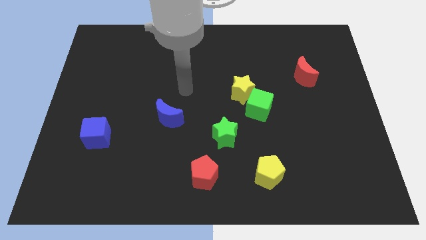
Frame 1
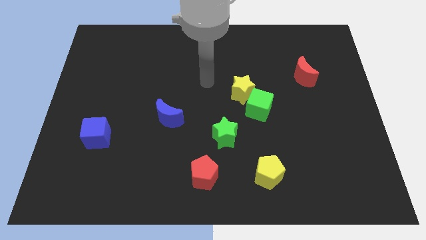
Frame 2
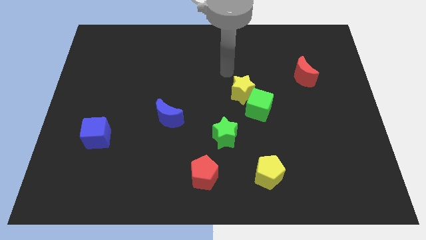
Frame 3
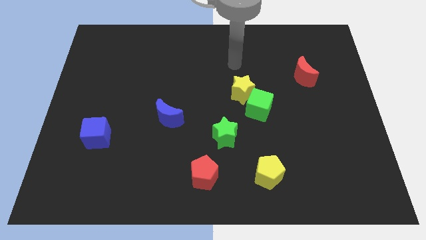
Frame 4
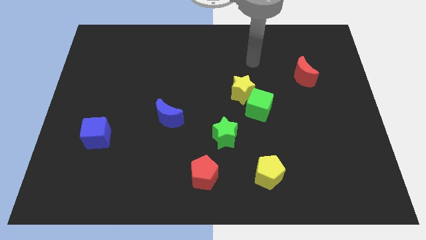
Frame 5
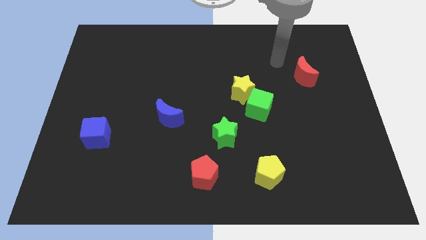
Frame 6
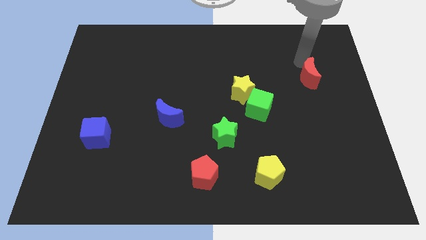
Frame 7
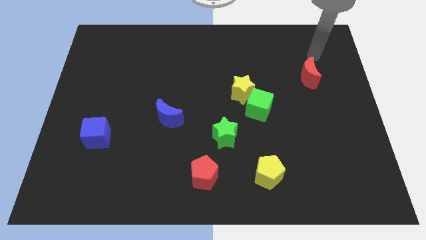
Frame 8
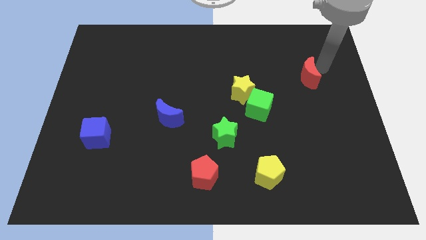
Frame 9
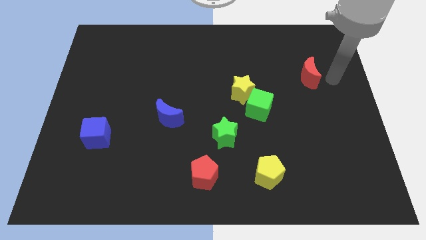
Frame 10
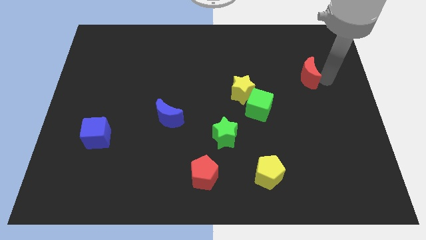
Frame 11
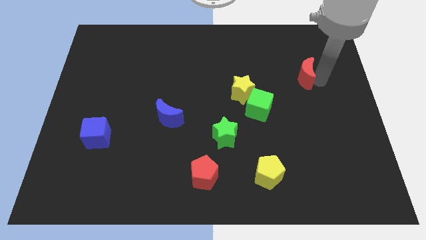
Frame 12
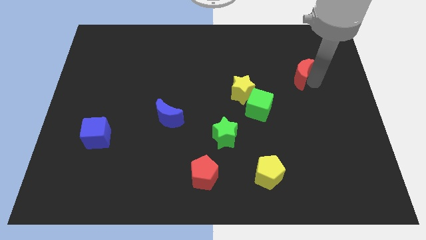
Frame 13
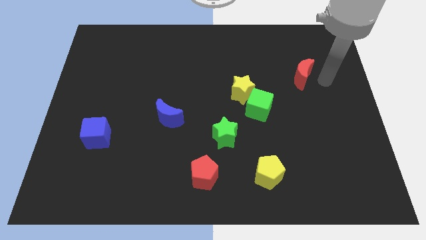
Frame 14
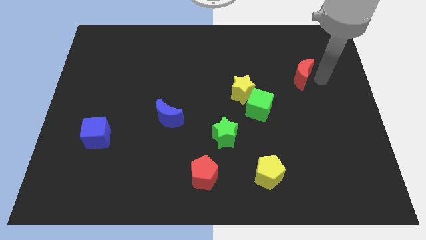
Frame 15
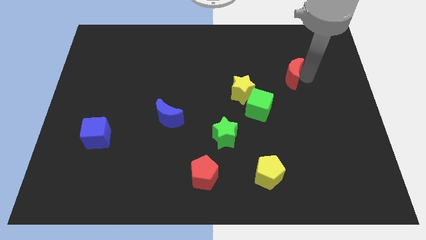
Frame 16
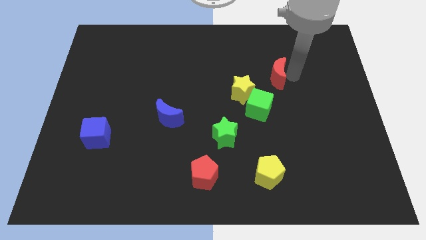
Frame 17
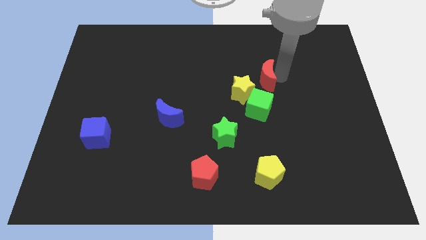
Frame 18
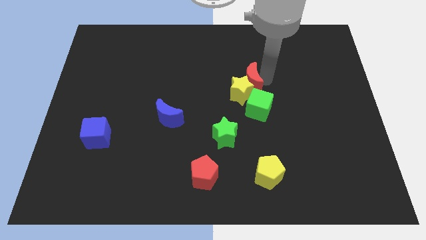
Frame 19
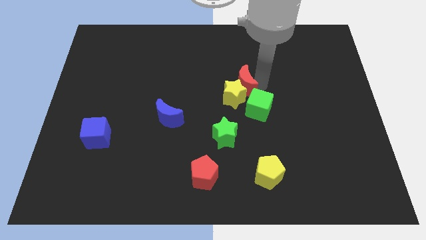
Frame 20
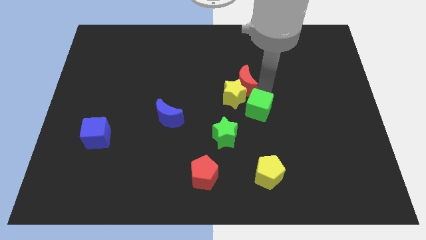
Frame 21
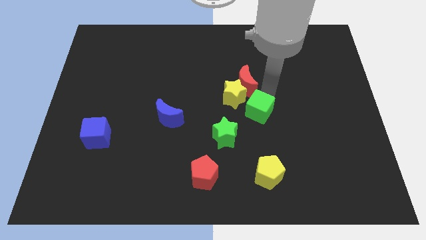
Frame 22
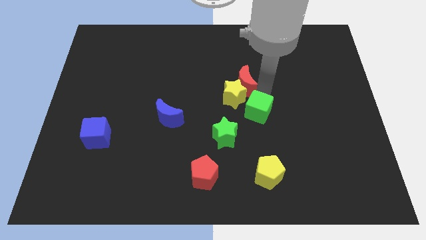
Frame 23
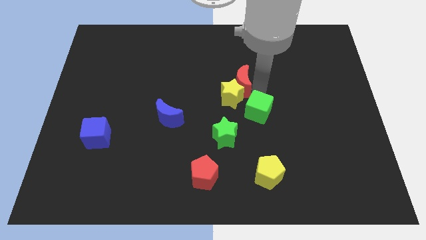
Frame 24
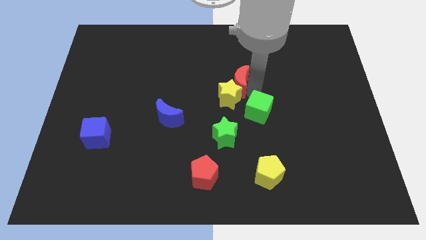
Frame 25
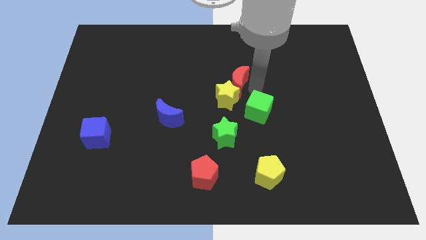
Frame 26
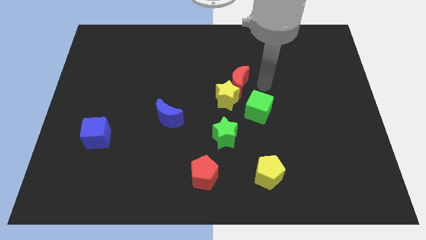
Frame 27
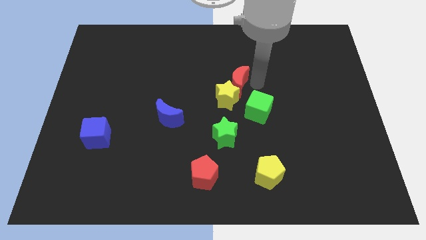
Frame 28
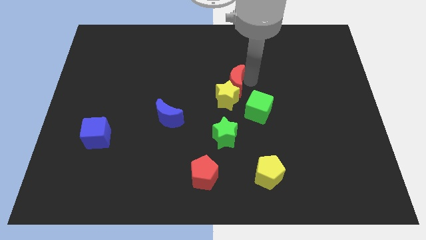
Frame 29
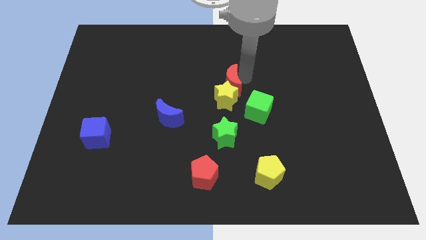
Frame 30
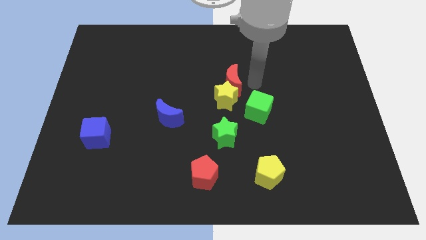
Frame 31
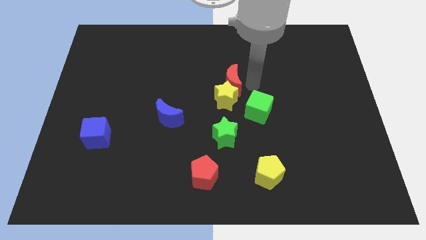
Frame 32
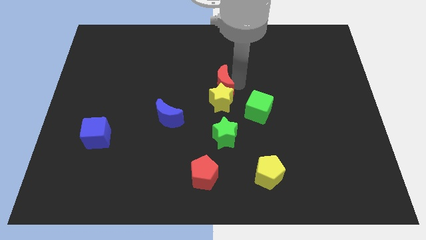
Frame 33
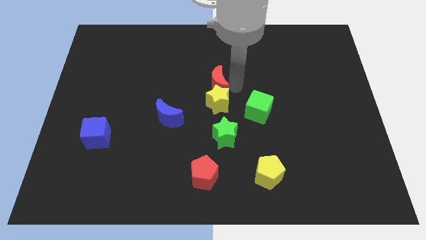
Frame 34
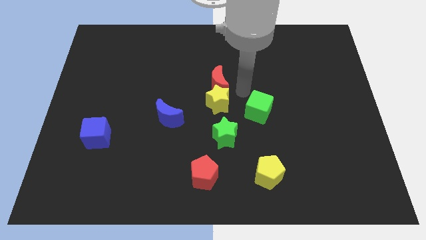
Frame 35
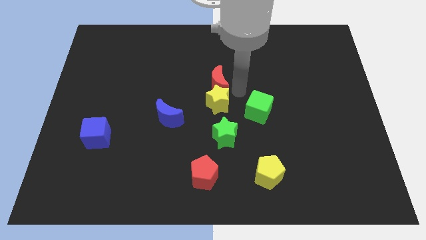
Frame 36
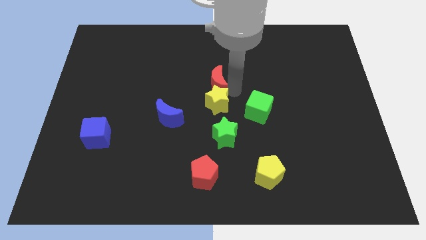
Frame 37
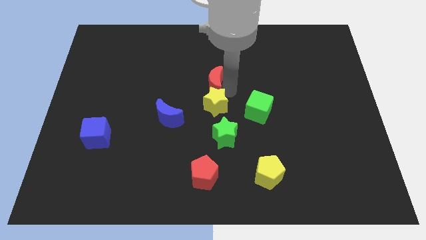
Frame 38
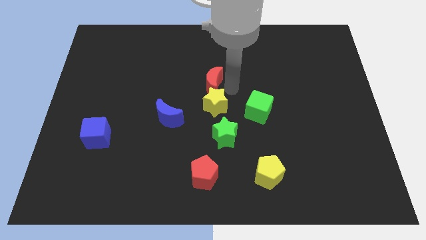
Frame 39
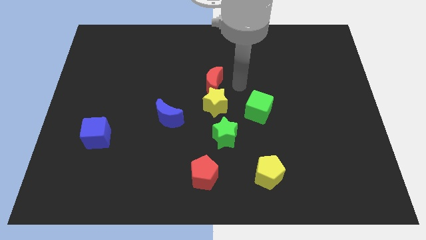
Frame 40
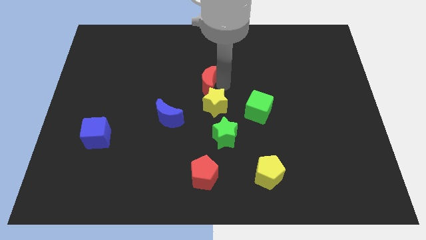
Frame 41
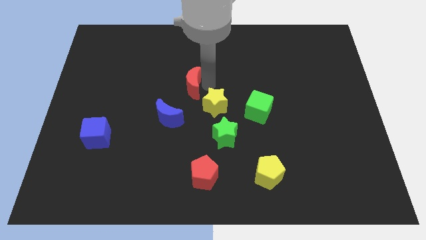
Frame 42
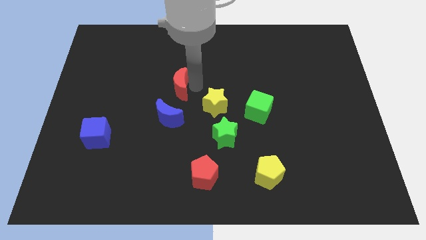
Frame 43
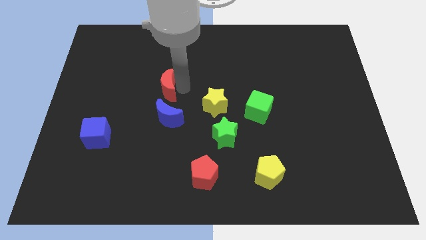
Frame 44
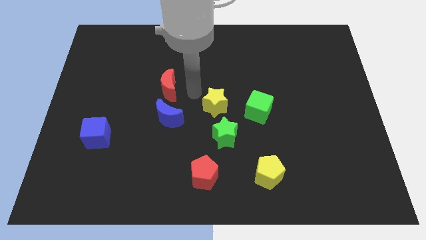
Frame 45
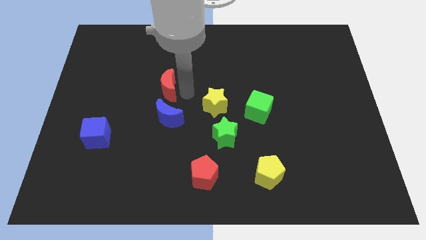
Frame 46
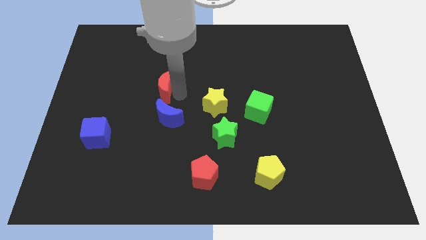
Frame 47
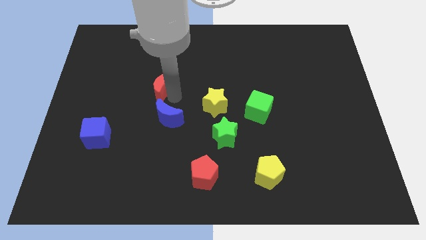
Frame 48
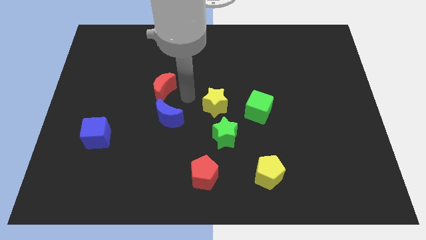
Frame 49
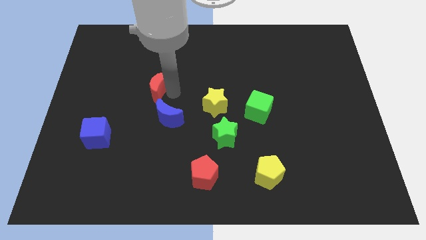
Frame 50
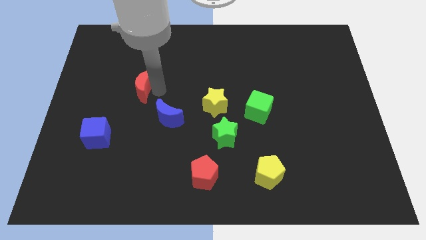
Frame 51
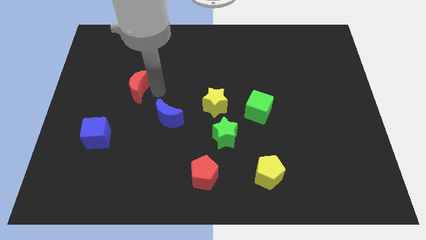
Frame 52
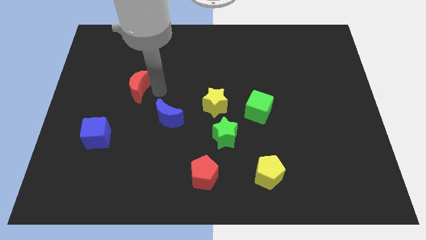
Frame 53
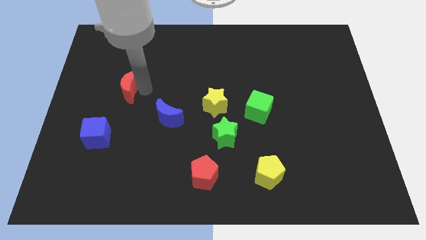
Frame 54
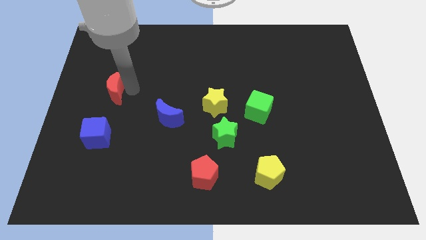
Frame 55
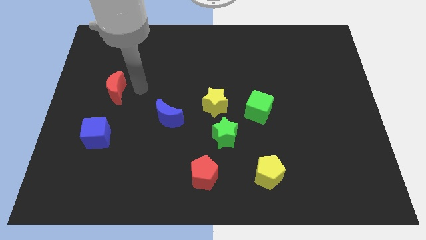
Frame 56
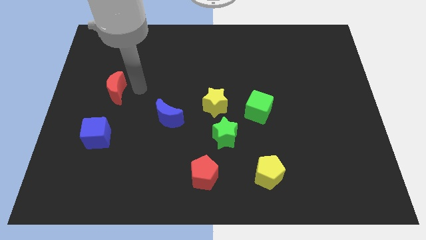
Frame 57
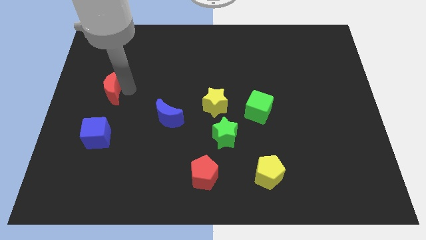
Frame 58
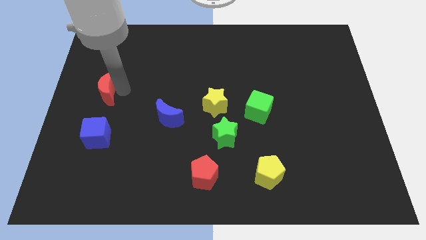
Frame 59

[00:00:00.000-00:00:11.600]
slide the red moon to the left side

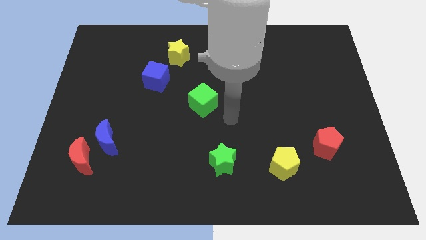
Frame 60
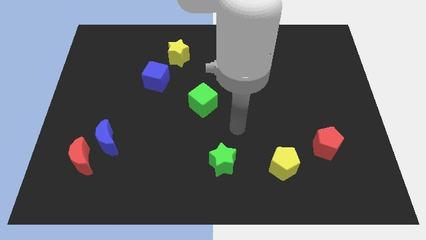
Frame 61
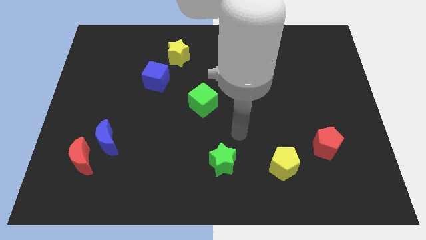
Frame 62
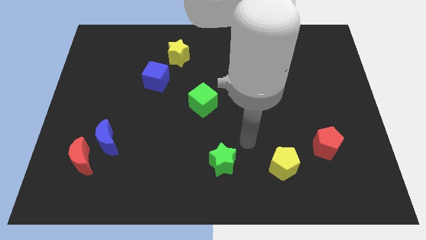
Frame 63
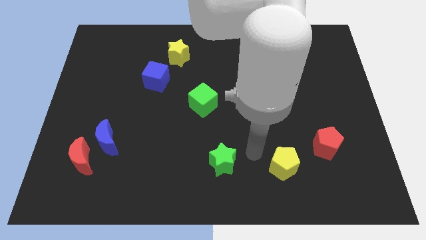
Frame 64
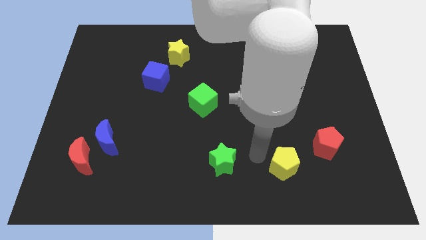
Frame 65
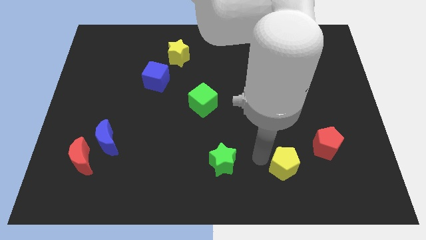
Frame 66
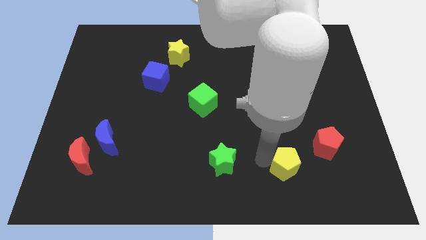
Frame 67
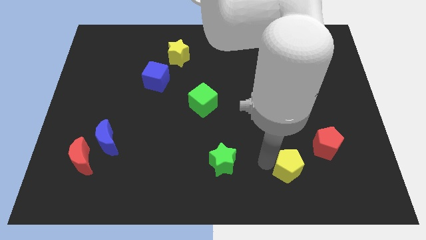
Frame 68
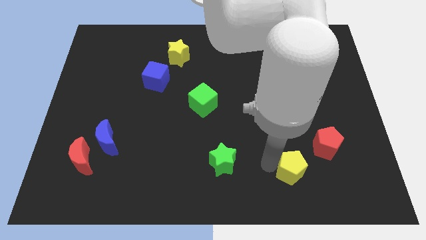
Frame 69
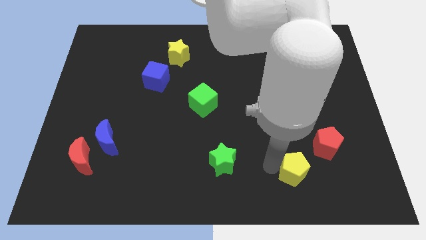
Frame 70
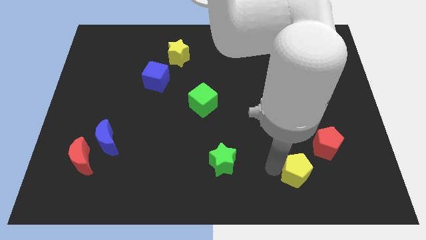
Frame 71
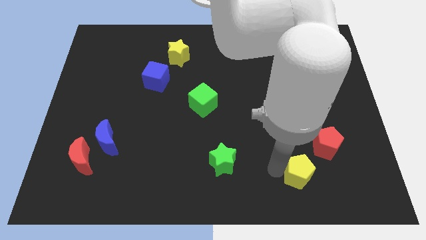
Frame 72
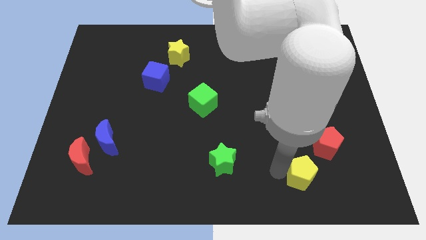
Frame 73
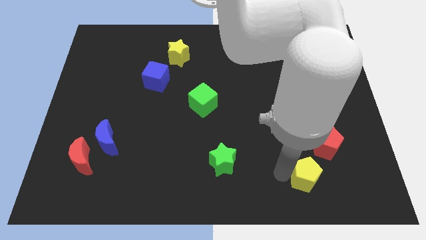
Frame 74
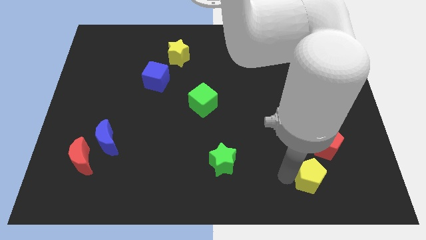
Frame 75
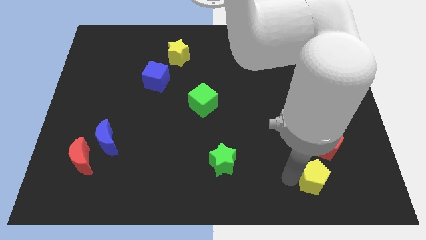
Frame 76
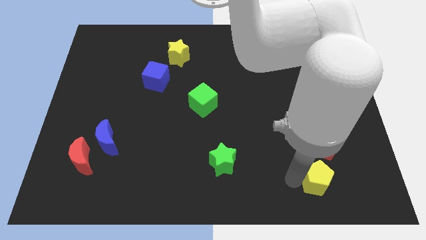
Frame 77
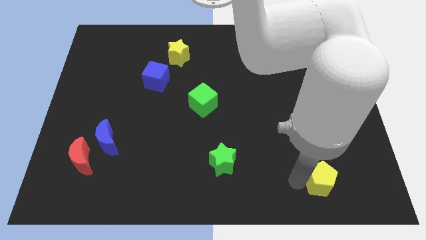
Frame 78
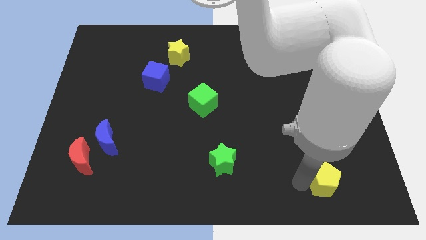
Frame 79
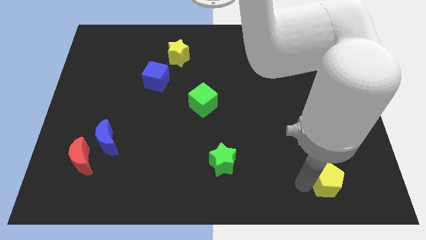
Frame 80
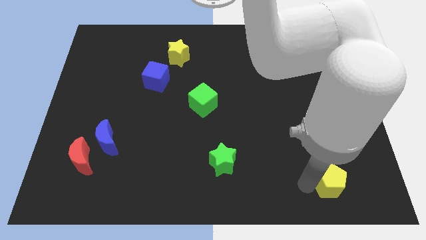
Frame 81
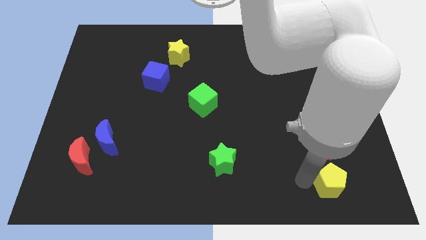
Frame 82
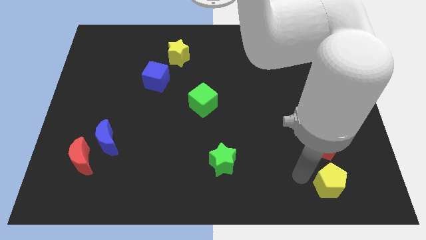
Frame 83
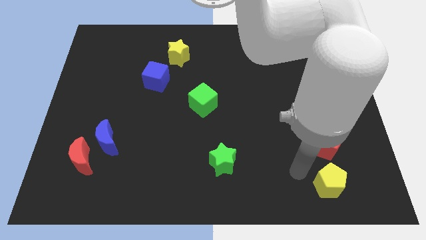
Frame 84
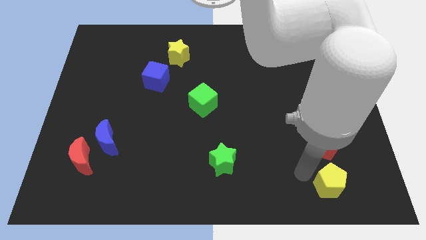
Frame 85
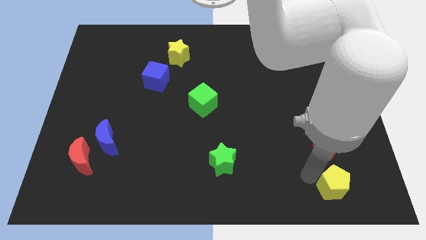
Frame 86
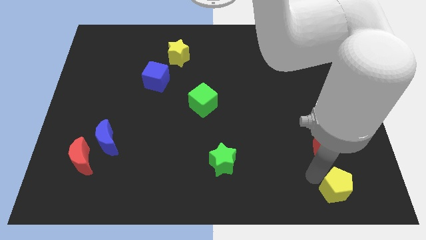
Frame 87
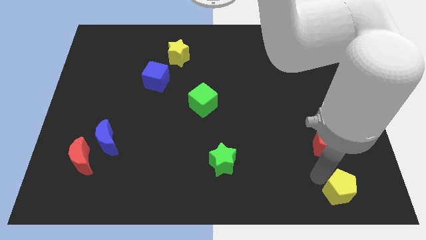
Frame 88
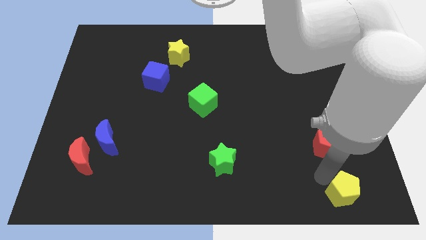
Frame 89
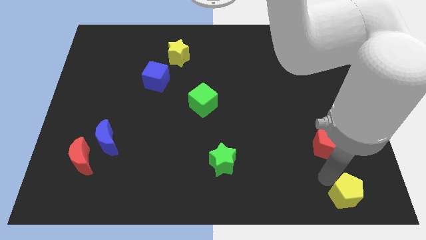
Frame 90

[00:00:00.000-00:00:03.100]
move the yellow pentagon to the bottom right corner
